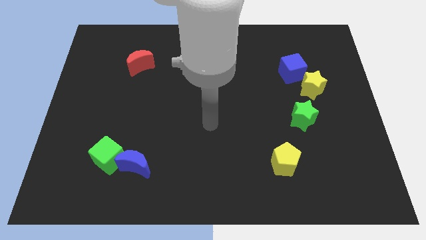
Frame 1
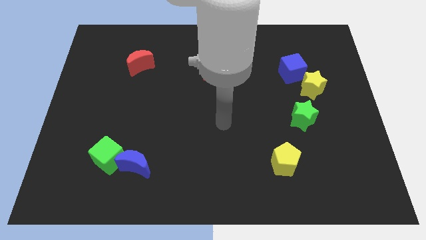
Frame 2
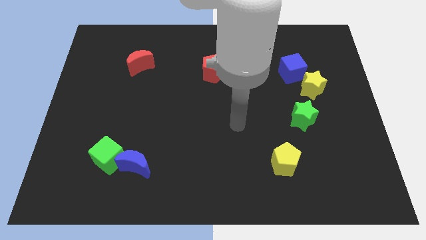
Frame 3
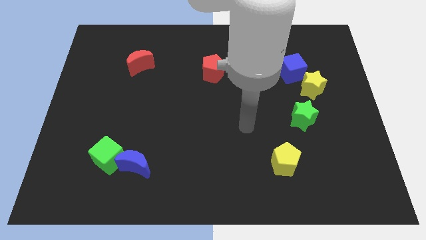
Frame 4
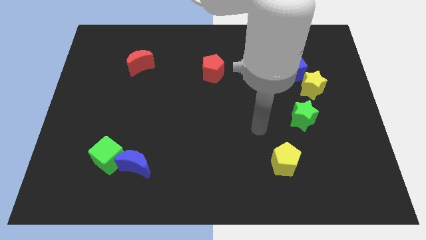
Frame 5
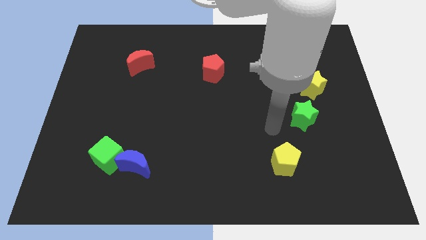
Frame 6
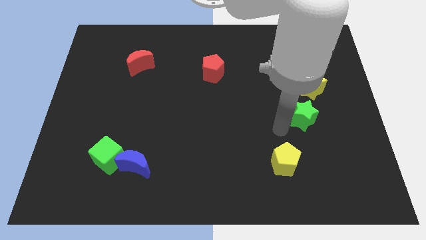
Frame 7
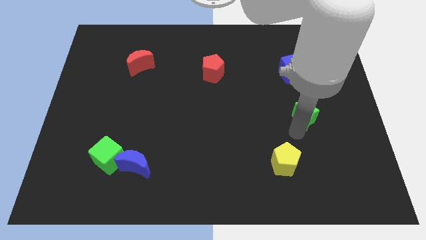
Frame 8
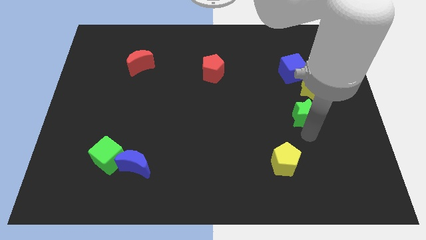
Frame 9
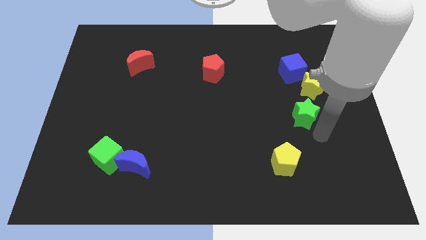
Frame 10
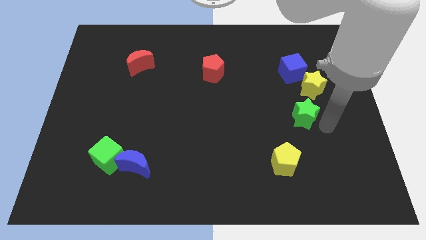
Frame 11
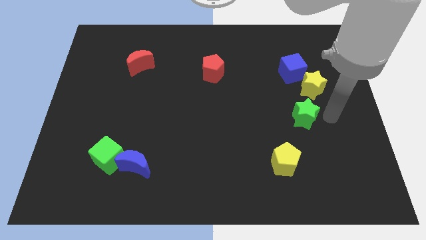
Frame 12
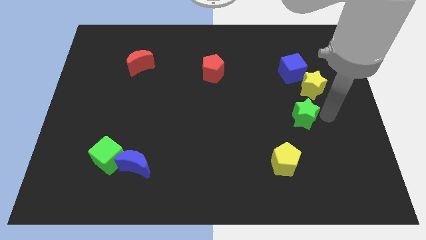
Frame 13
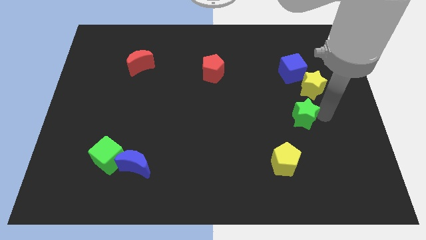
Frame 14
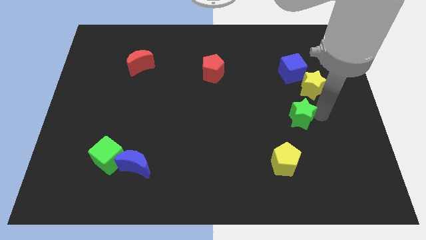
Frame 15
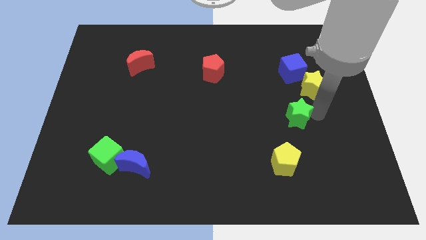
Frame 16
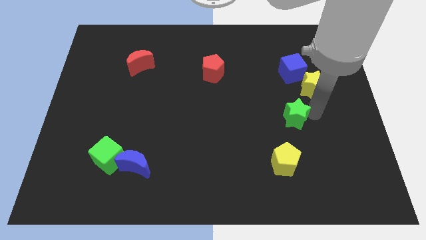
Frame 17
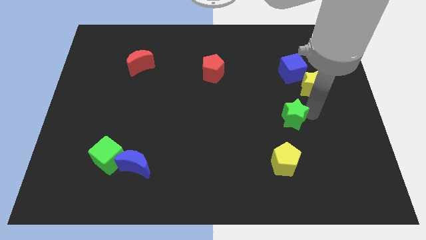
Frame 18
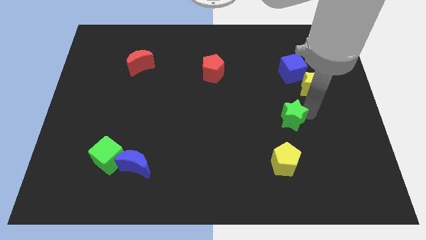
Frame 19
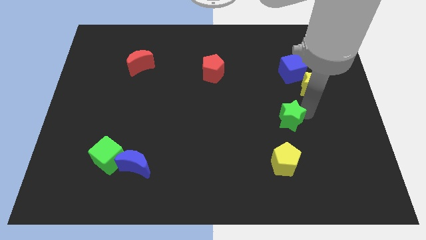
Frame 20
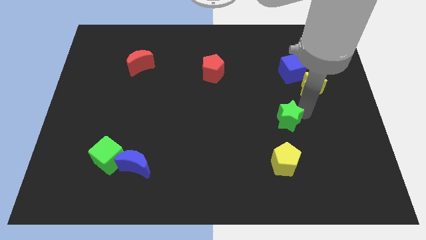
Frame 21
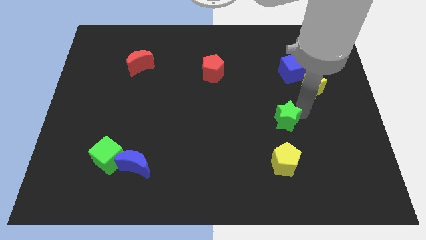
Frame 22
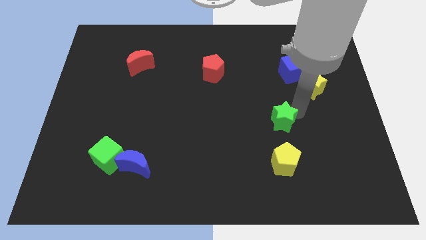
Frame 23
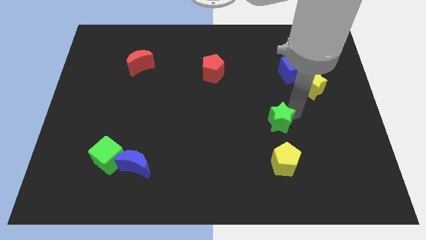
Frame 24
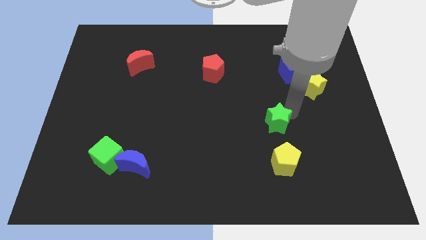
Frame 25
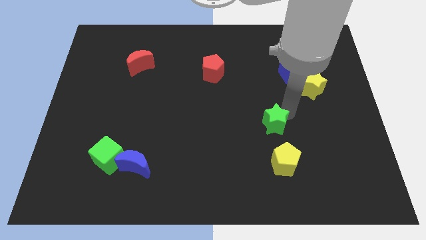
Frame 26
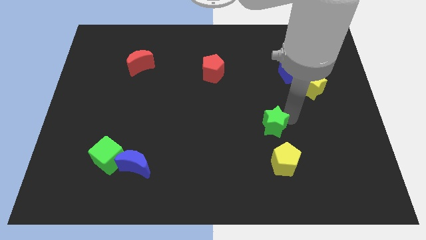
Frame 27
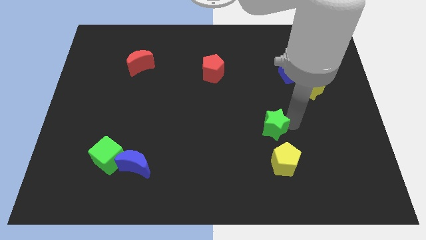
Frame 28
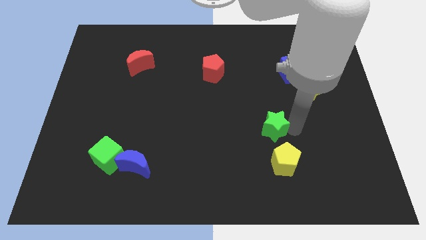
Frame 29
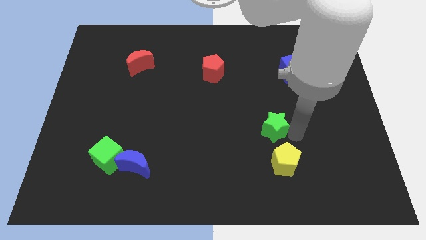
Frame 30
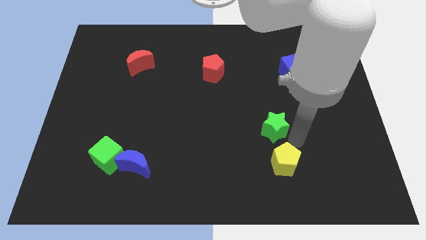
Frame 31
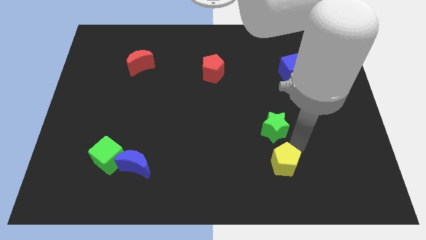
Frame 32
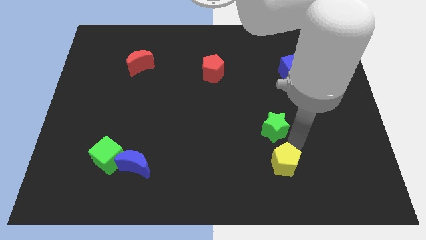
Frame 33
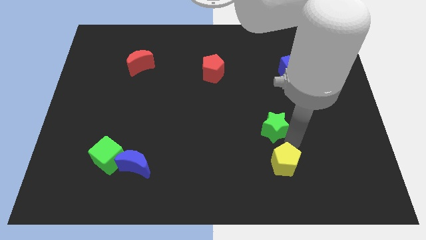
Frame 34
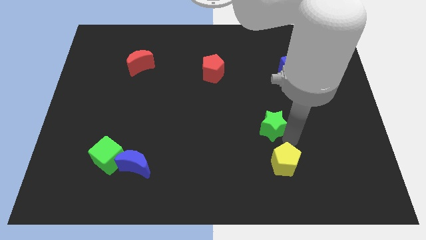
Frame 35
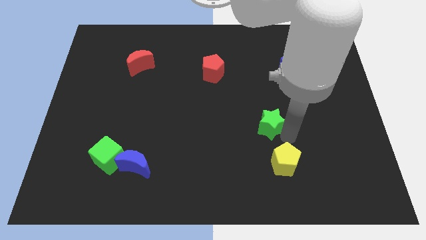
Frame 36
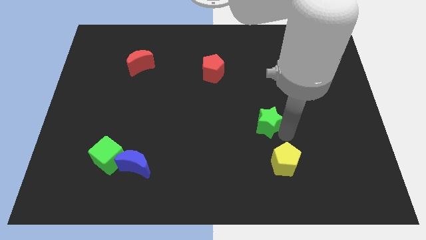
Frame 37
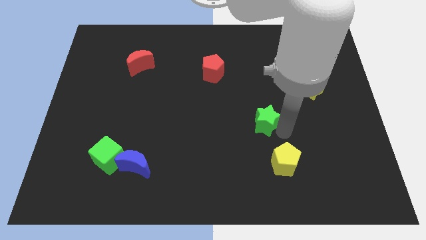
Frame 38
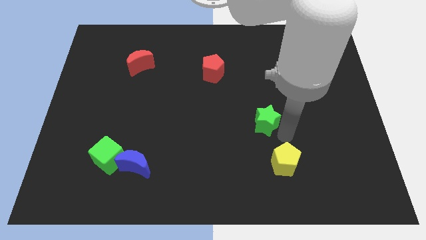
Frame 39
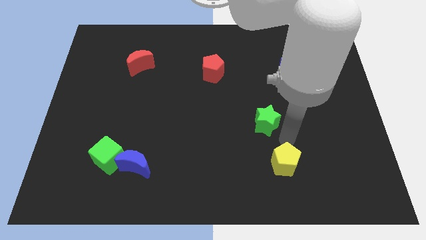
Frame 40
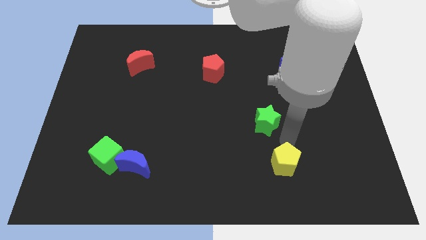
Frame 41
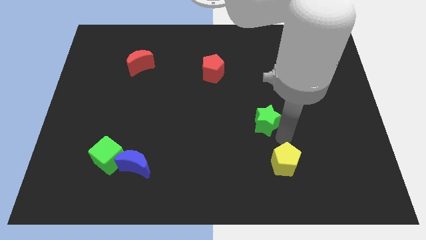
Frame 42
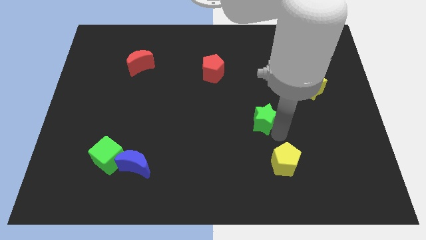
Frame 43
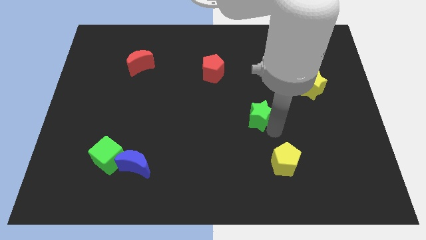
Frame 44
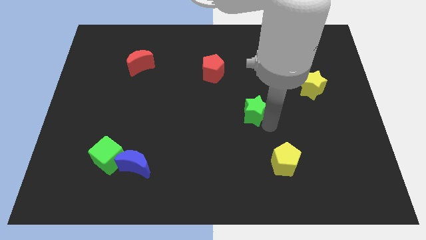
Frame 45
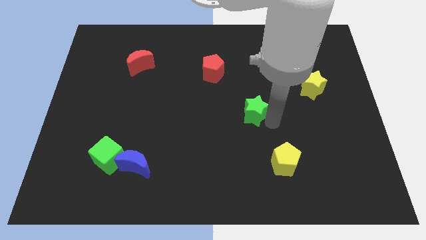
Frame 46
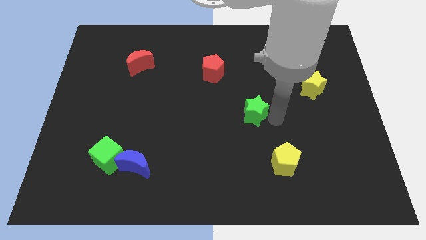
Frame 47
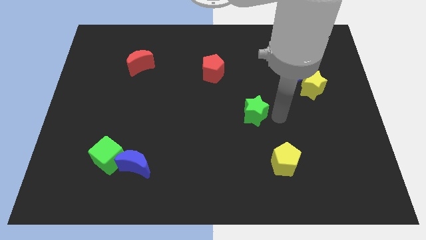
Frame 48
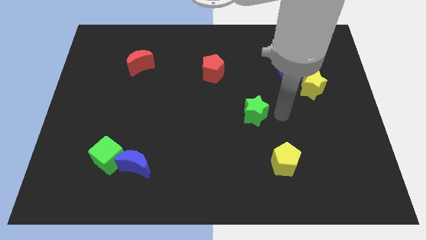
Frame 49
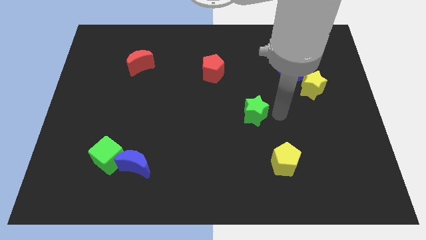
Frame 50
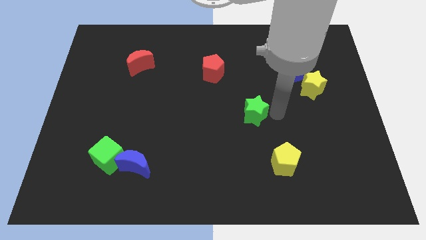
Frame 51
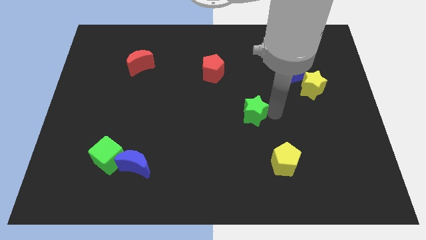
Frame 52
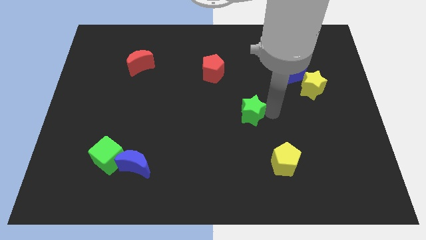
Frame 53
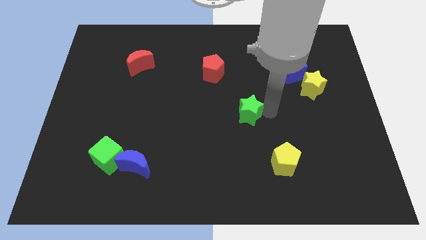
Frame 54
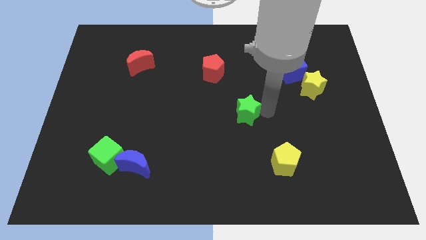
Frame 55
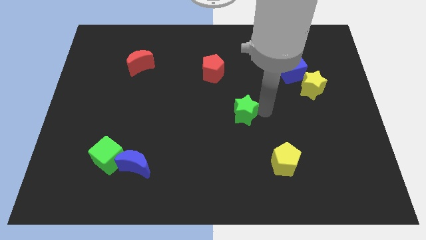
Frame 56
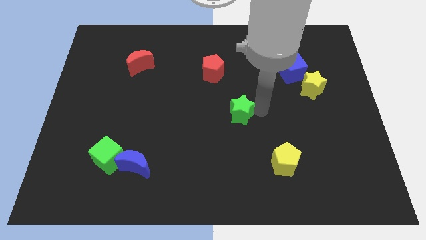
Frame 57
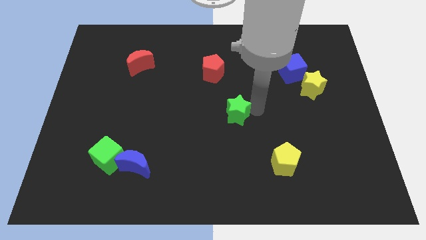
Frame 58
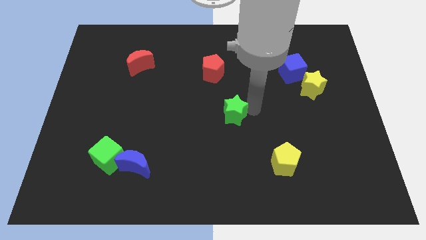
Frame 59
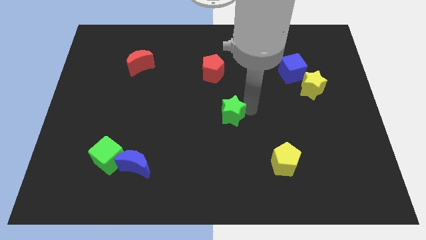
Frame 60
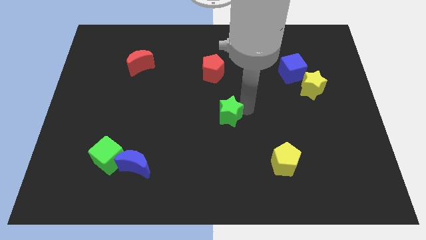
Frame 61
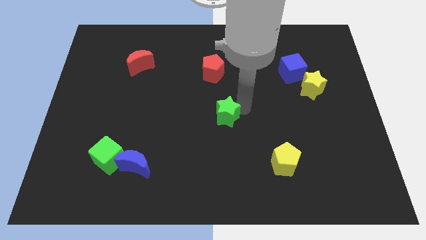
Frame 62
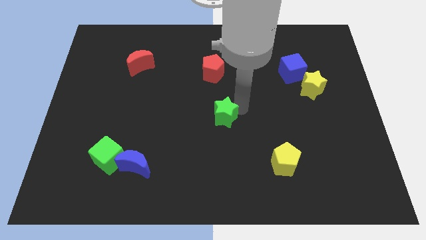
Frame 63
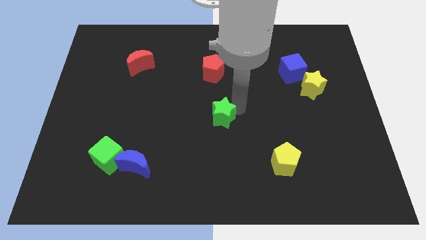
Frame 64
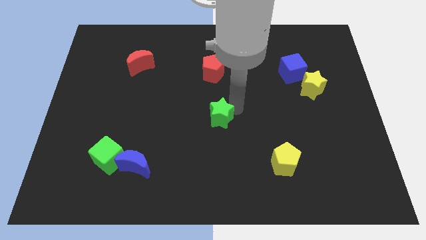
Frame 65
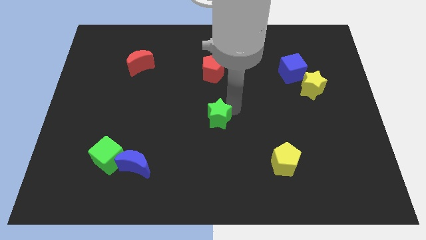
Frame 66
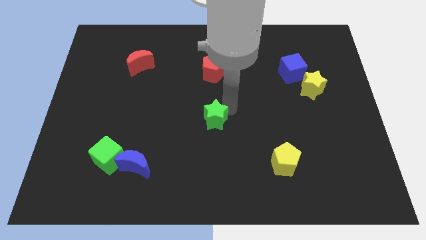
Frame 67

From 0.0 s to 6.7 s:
push the green star to the left

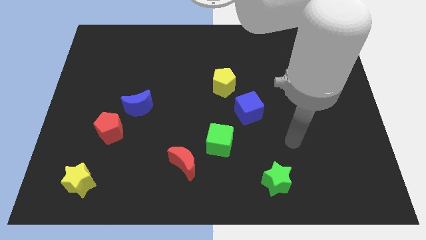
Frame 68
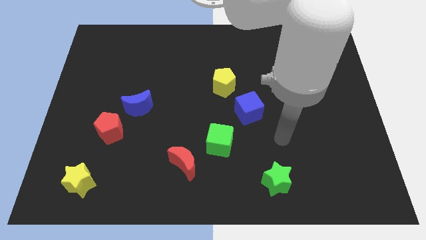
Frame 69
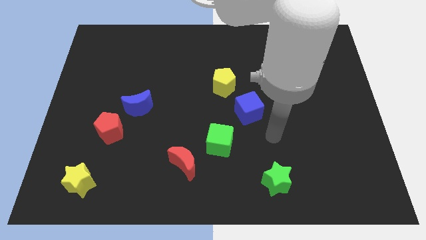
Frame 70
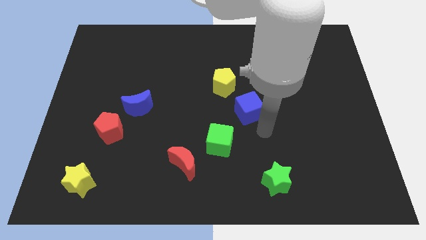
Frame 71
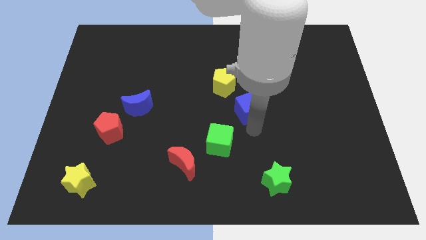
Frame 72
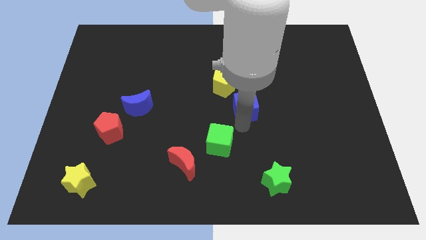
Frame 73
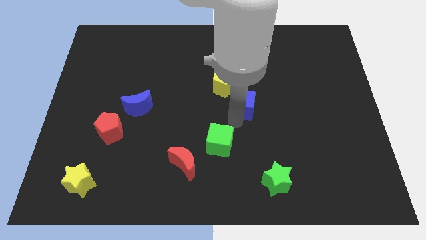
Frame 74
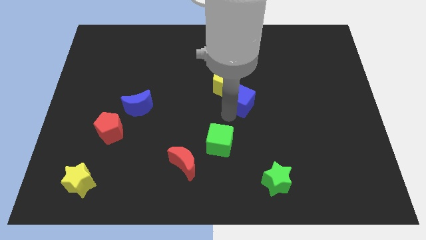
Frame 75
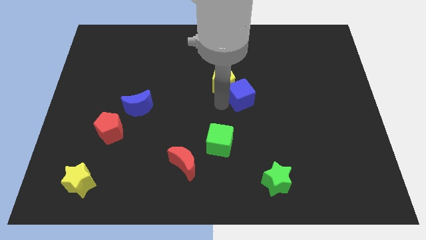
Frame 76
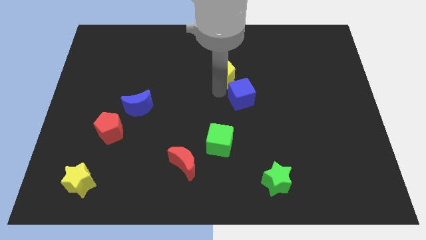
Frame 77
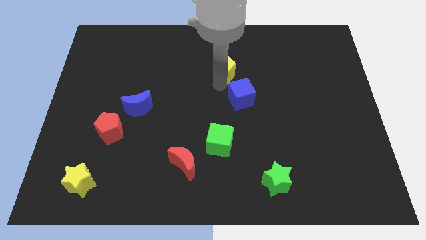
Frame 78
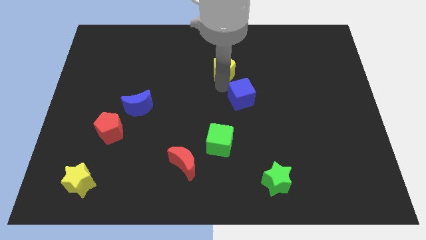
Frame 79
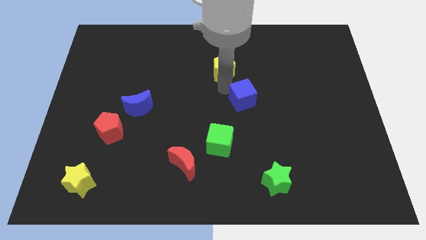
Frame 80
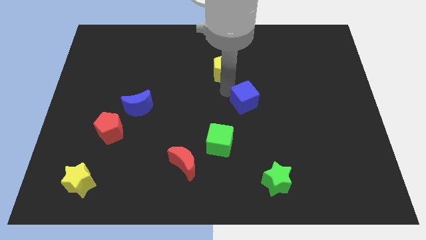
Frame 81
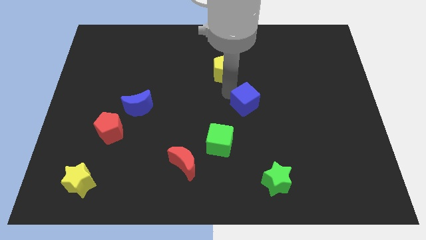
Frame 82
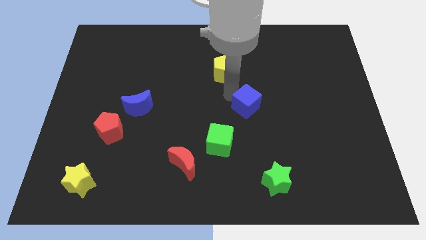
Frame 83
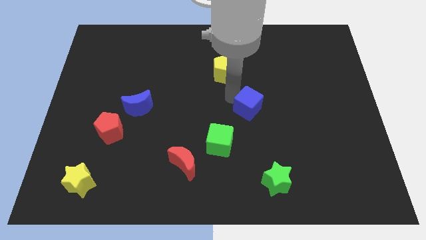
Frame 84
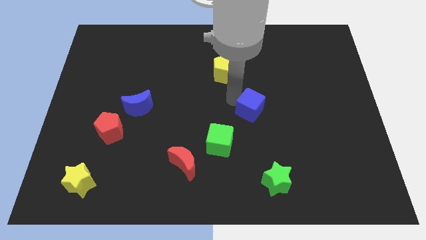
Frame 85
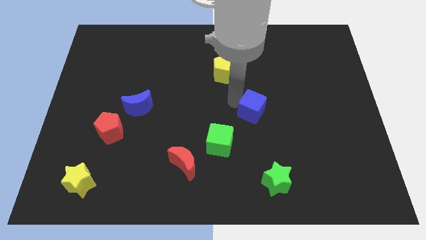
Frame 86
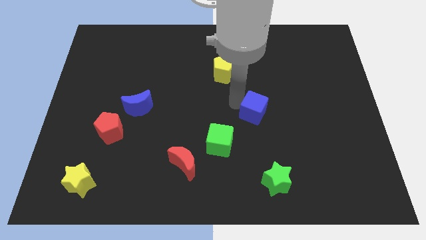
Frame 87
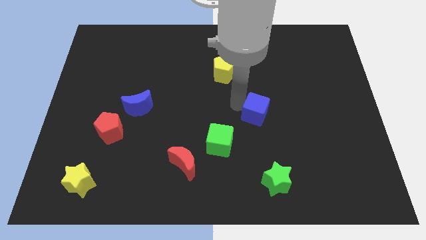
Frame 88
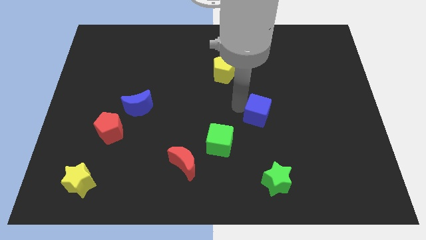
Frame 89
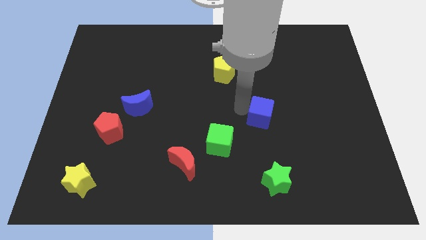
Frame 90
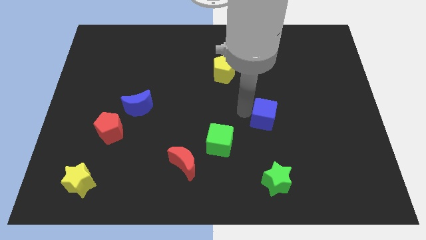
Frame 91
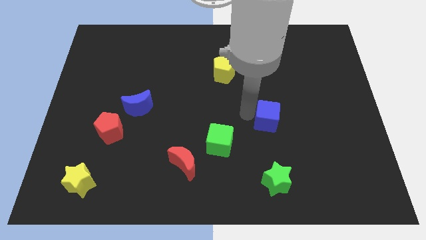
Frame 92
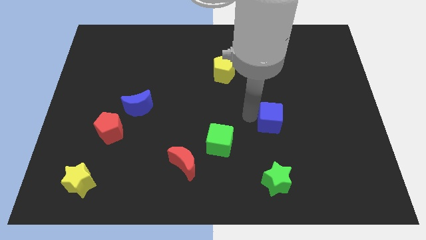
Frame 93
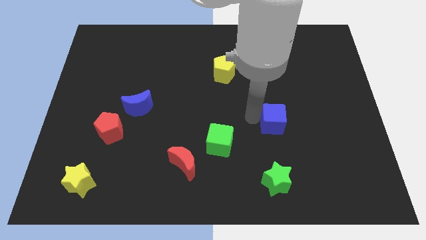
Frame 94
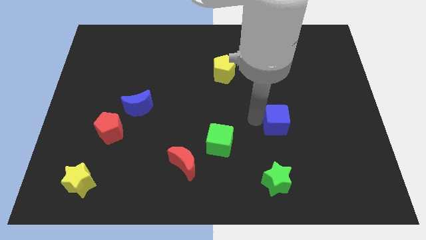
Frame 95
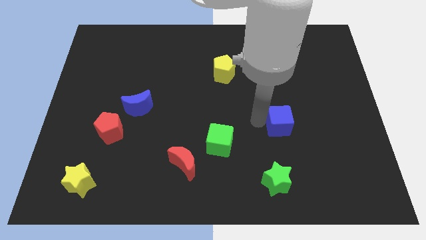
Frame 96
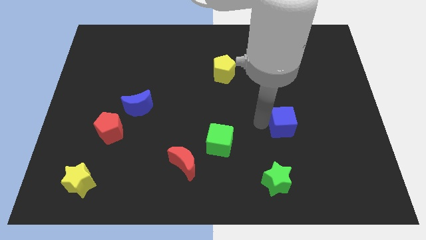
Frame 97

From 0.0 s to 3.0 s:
slide the blue cube to the right a little bit
